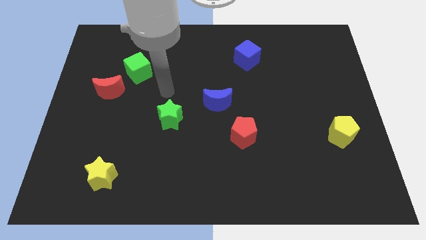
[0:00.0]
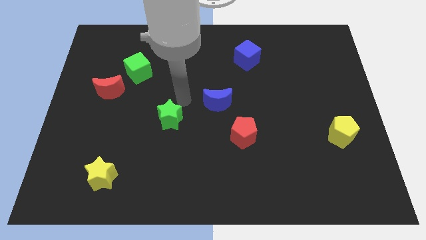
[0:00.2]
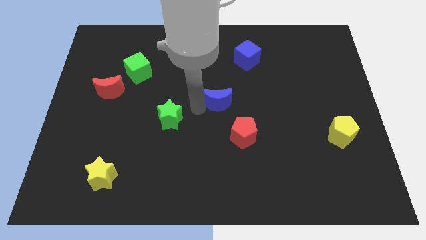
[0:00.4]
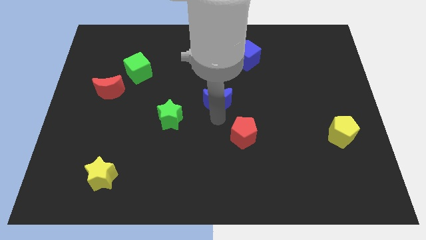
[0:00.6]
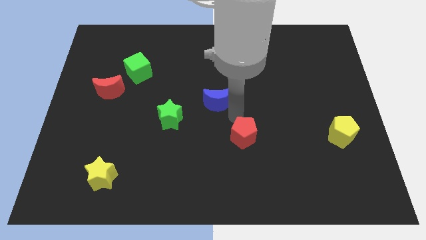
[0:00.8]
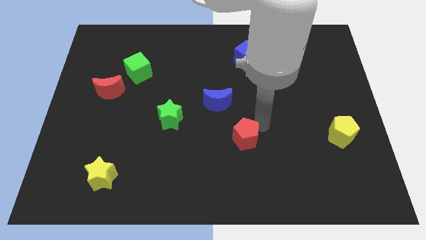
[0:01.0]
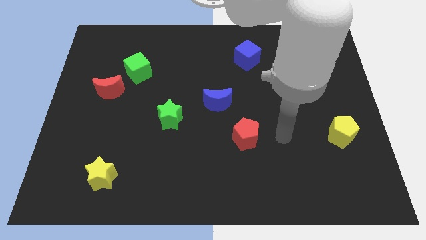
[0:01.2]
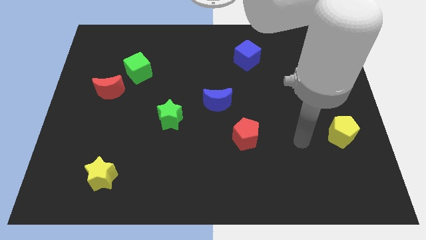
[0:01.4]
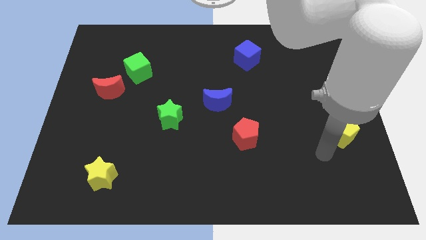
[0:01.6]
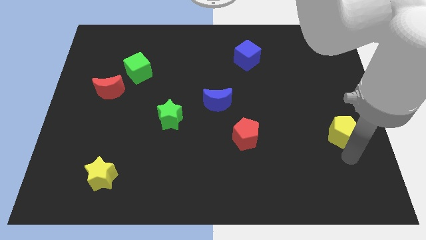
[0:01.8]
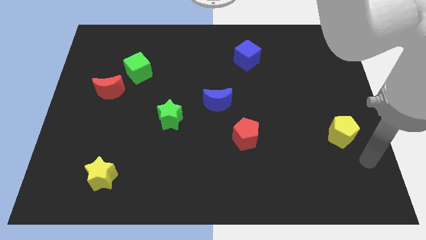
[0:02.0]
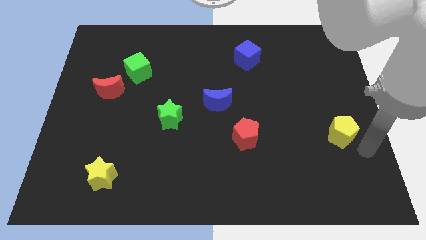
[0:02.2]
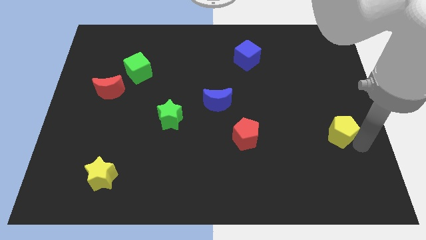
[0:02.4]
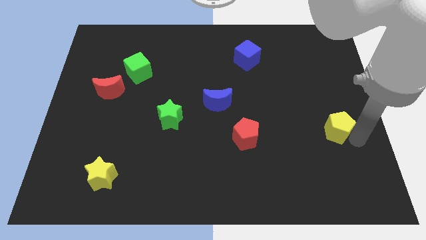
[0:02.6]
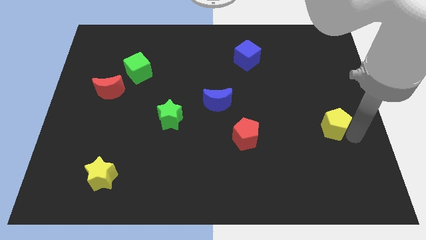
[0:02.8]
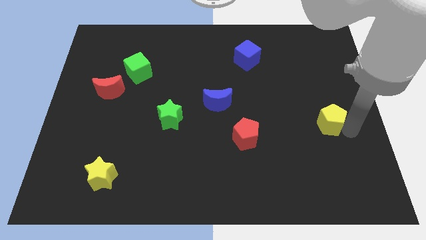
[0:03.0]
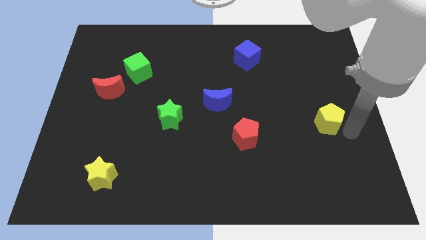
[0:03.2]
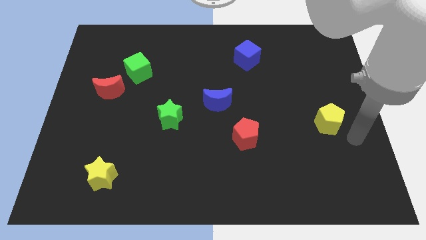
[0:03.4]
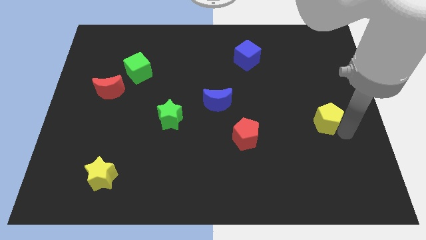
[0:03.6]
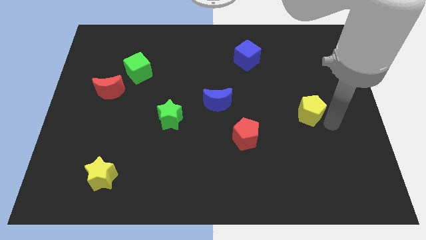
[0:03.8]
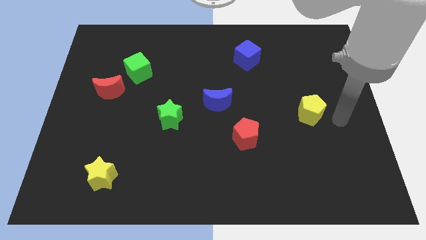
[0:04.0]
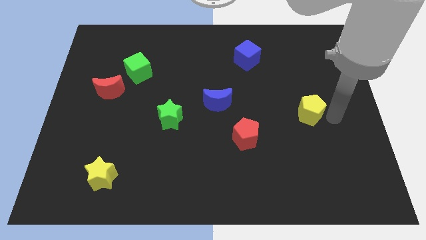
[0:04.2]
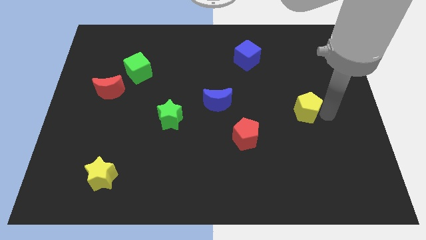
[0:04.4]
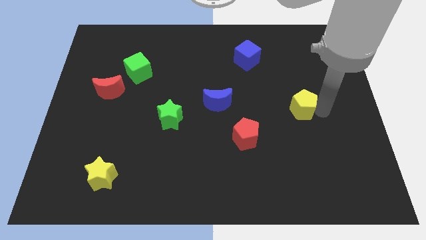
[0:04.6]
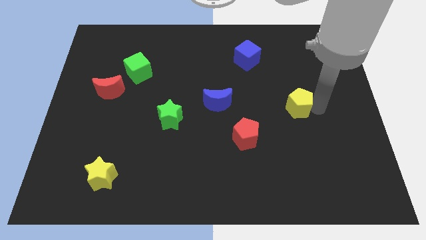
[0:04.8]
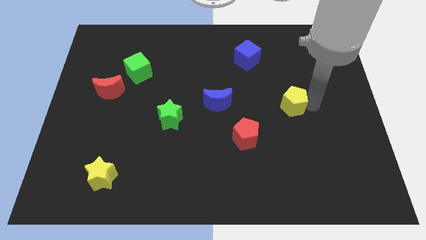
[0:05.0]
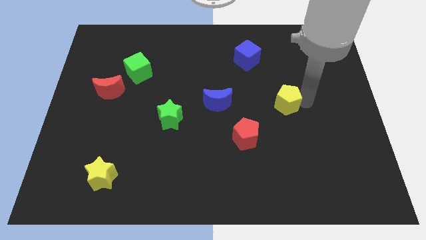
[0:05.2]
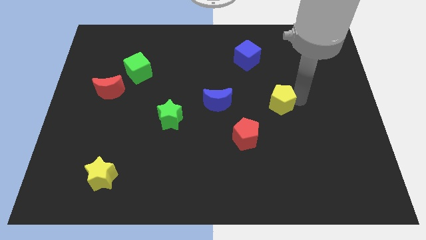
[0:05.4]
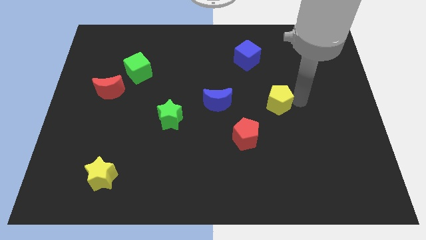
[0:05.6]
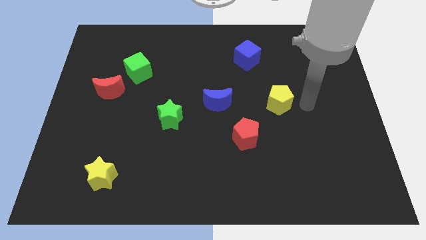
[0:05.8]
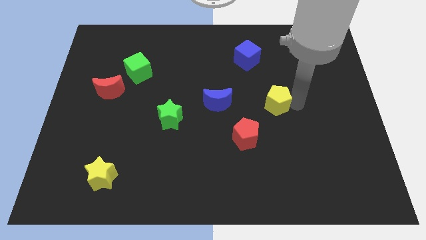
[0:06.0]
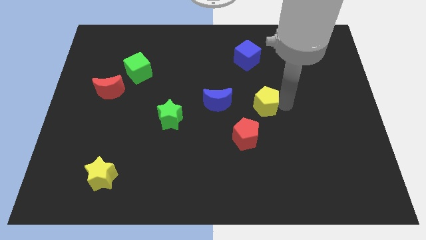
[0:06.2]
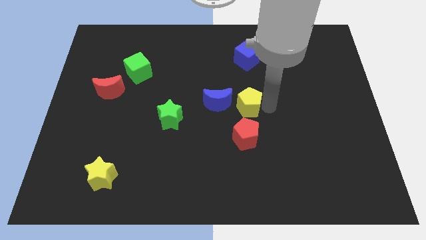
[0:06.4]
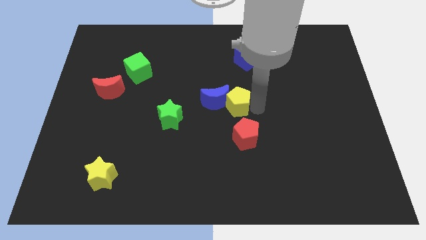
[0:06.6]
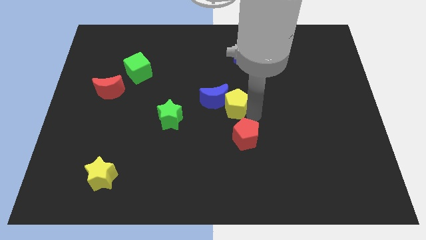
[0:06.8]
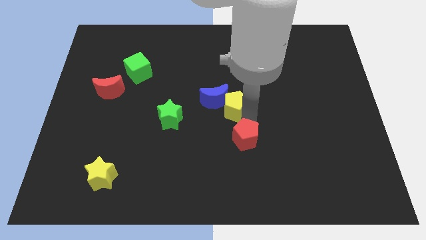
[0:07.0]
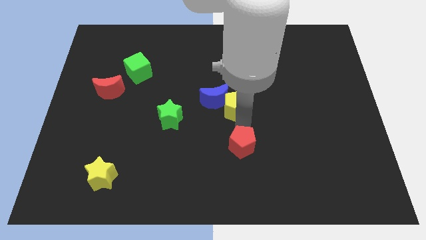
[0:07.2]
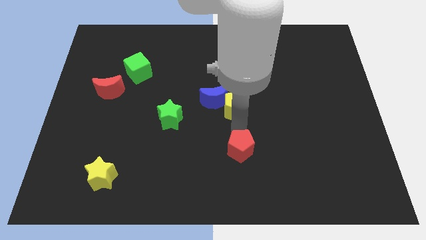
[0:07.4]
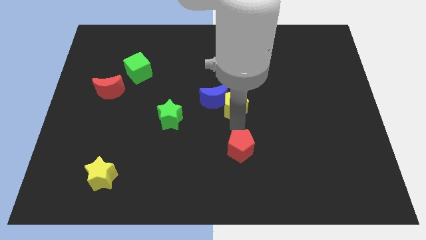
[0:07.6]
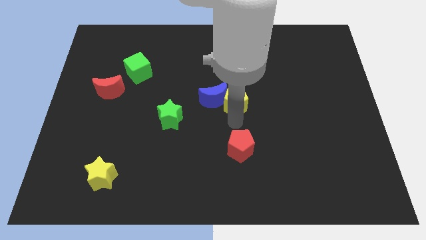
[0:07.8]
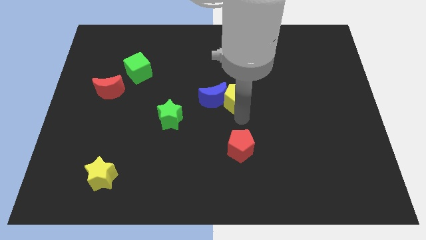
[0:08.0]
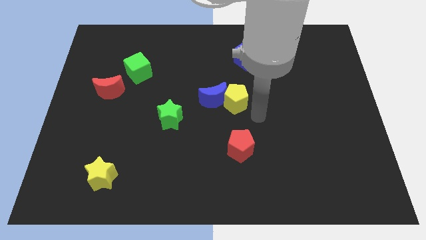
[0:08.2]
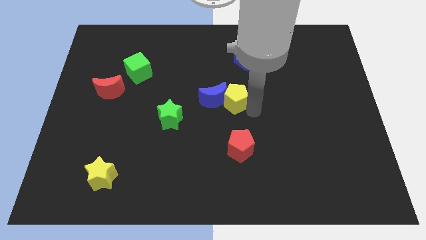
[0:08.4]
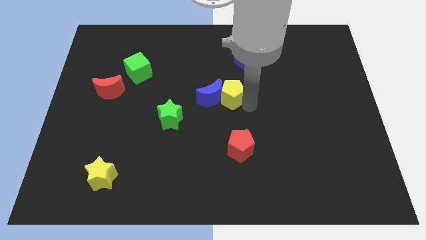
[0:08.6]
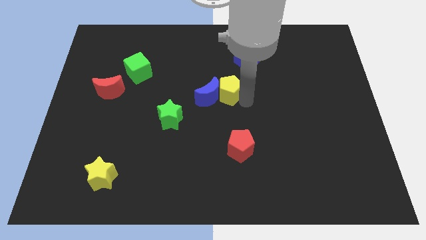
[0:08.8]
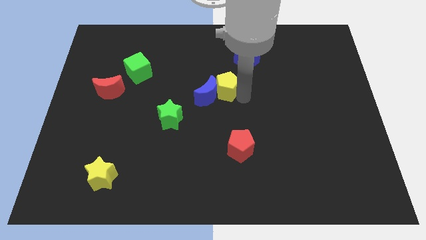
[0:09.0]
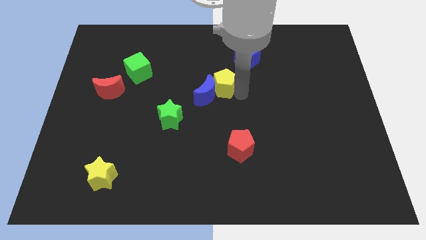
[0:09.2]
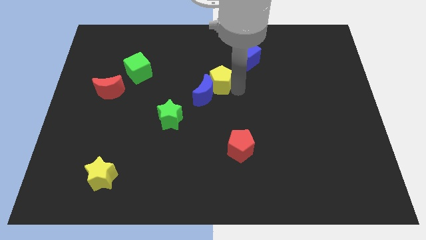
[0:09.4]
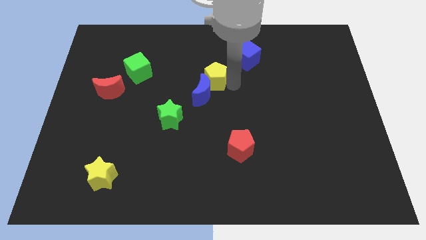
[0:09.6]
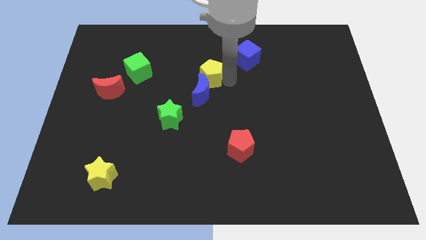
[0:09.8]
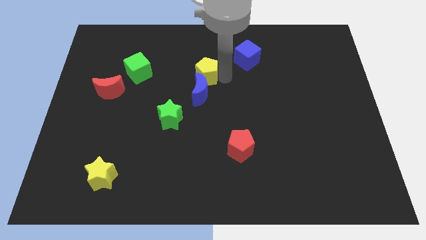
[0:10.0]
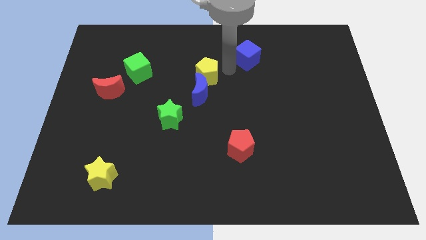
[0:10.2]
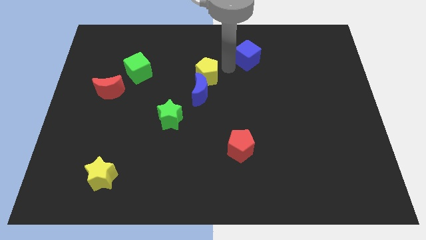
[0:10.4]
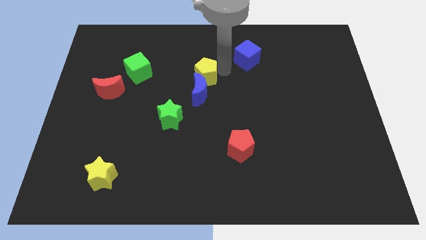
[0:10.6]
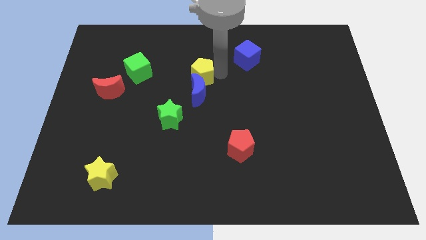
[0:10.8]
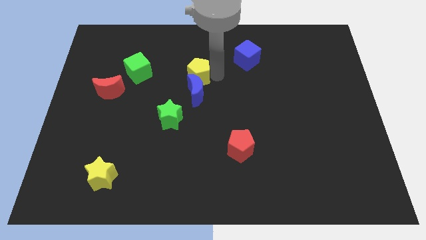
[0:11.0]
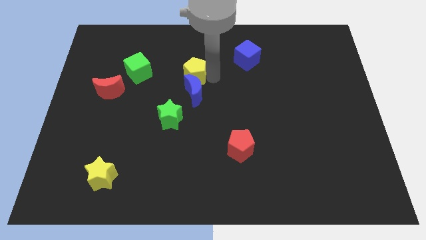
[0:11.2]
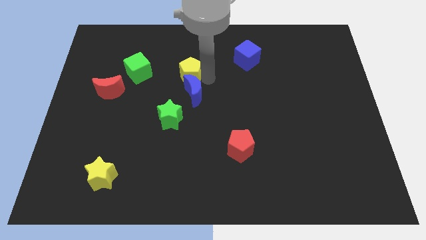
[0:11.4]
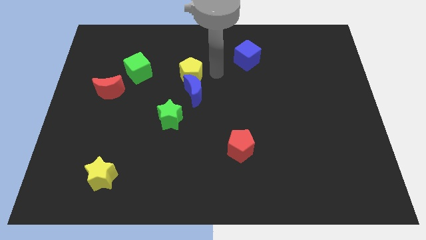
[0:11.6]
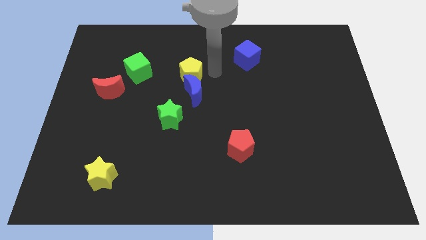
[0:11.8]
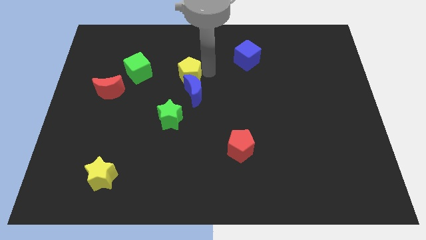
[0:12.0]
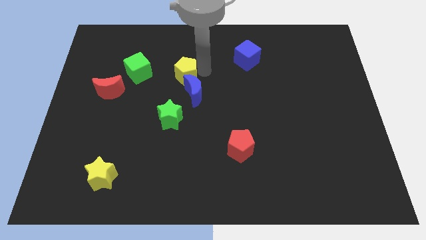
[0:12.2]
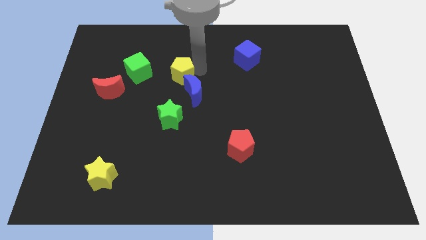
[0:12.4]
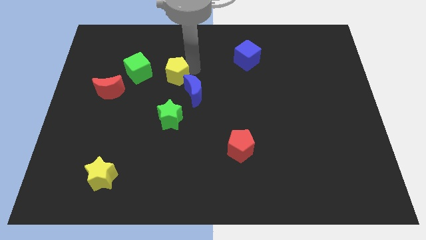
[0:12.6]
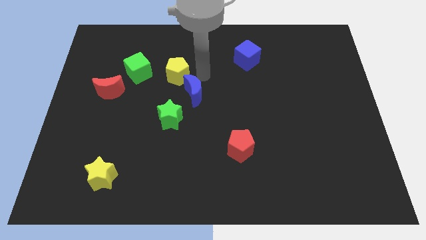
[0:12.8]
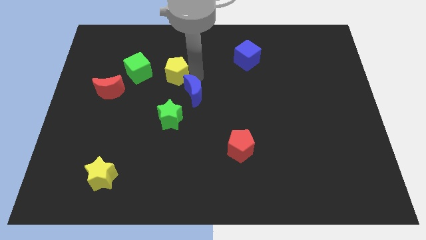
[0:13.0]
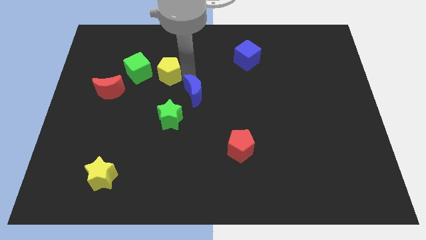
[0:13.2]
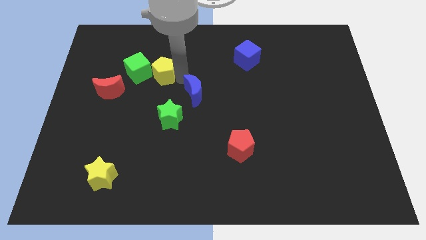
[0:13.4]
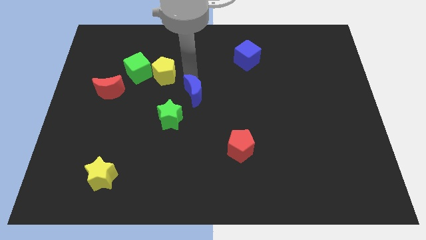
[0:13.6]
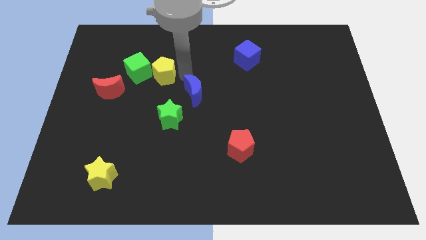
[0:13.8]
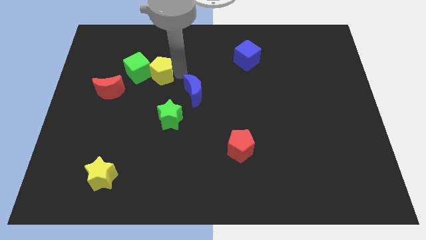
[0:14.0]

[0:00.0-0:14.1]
move the yellow pentagon to the green cube
